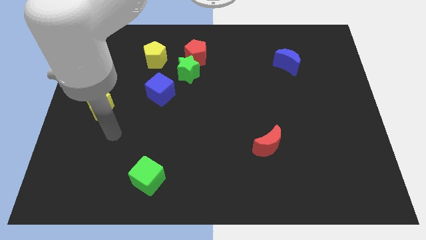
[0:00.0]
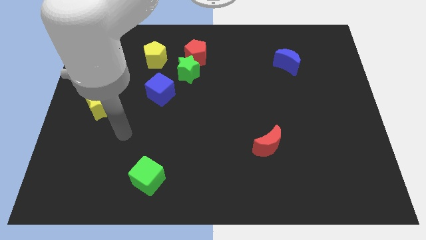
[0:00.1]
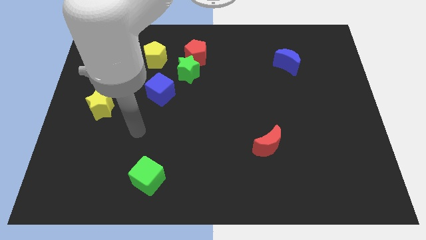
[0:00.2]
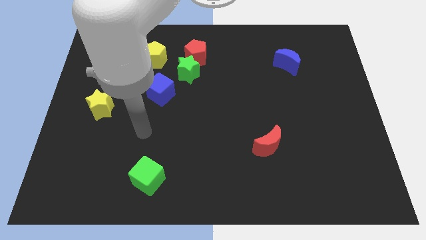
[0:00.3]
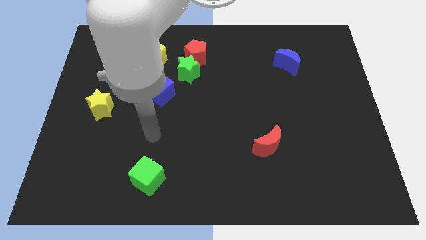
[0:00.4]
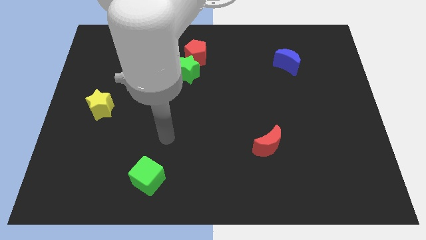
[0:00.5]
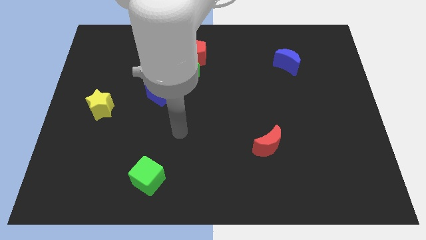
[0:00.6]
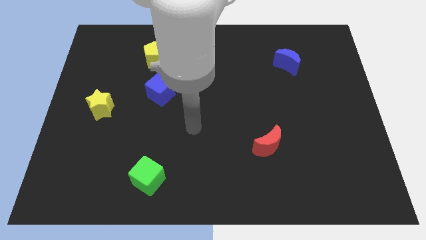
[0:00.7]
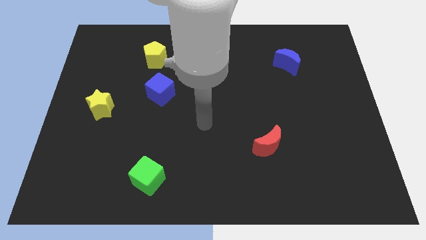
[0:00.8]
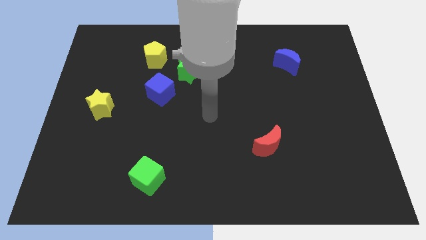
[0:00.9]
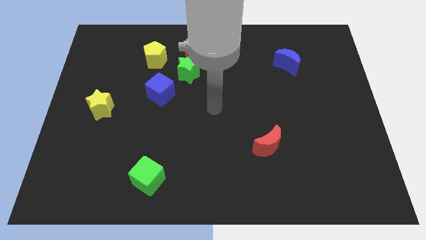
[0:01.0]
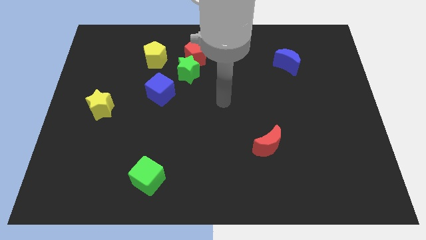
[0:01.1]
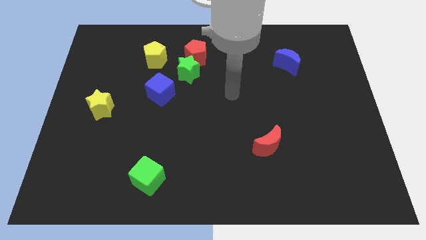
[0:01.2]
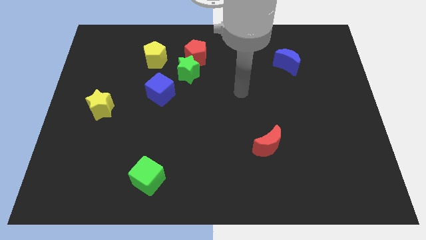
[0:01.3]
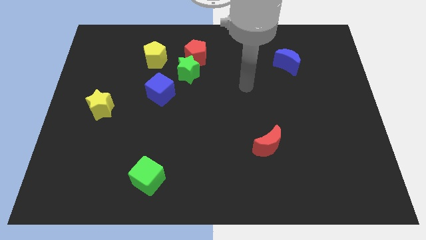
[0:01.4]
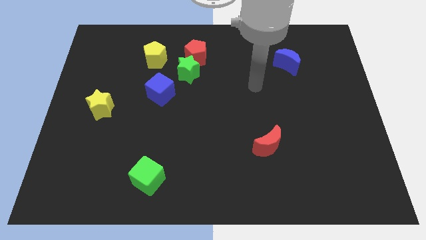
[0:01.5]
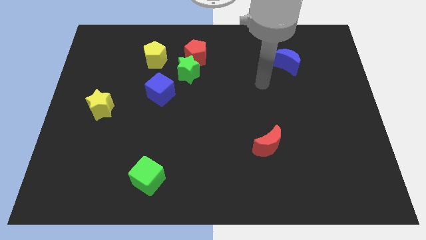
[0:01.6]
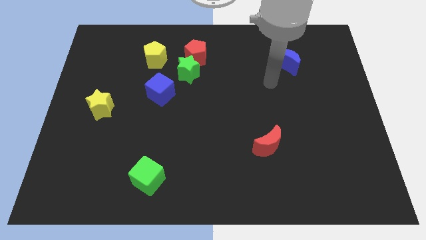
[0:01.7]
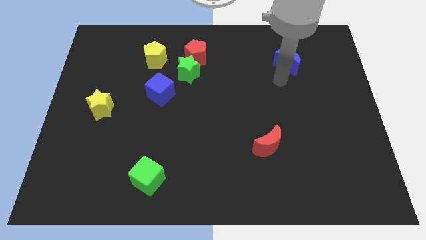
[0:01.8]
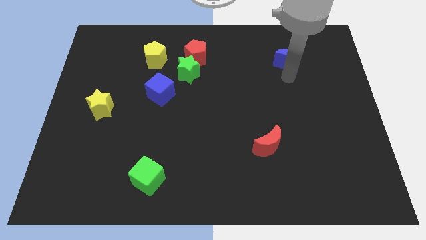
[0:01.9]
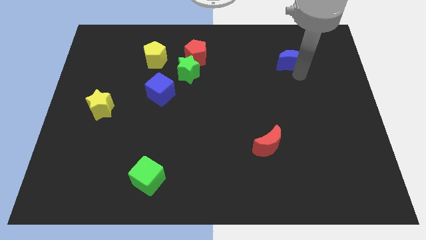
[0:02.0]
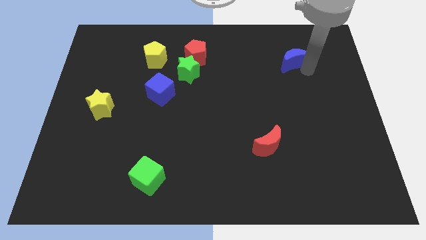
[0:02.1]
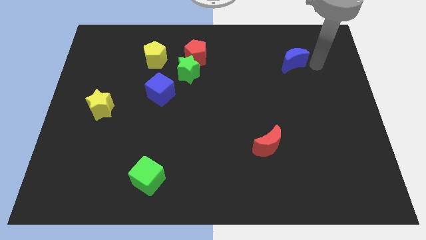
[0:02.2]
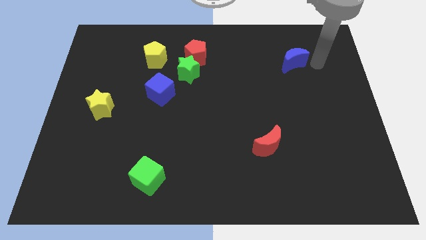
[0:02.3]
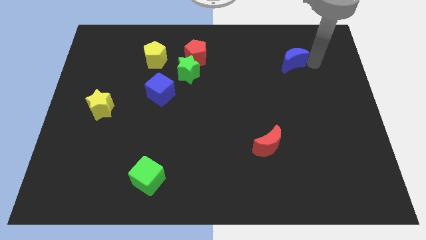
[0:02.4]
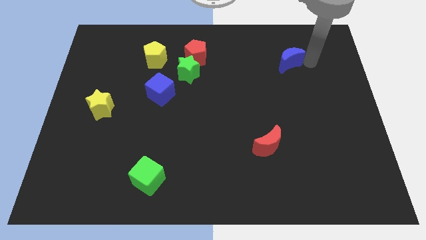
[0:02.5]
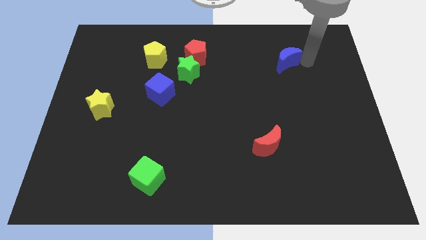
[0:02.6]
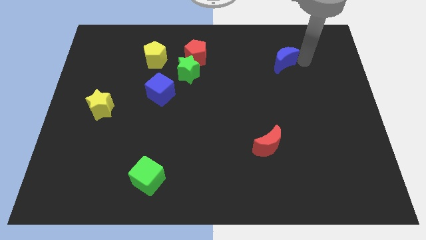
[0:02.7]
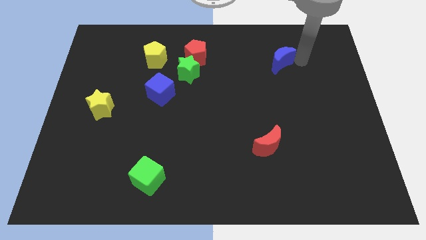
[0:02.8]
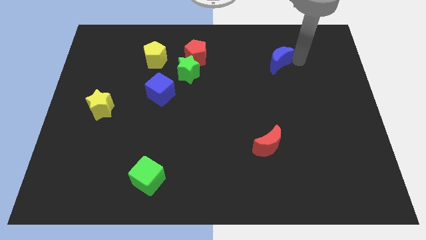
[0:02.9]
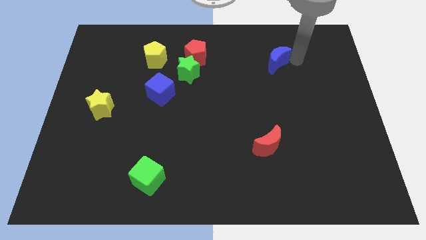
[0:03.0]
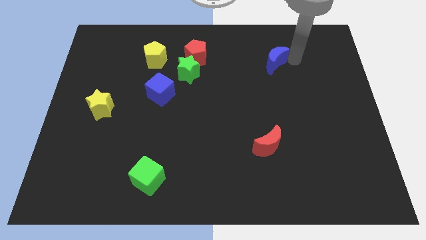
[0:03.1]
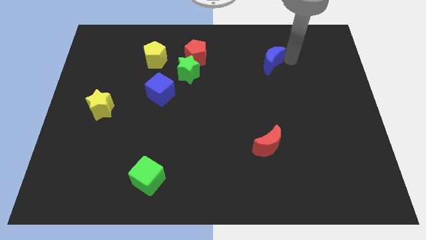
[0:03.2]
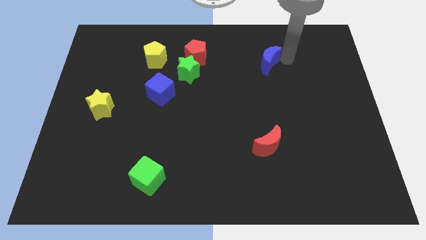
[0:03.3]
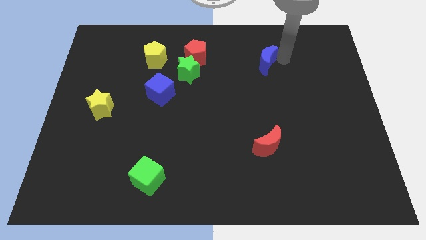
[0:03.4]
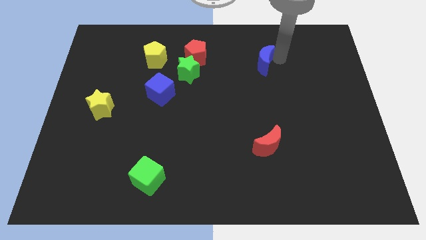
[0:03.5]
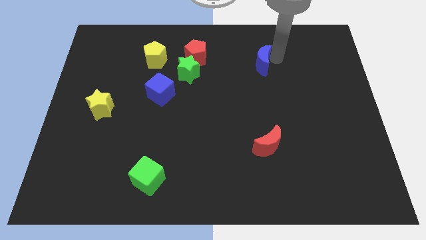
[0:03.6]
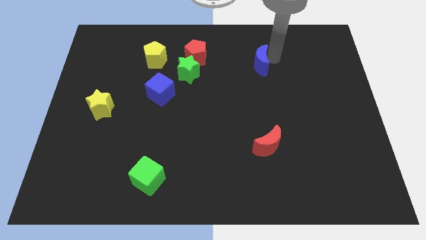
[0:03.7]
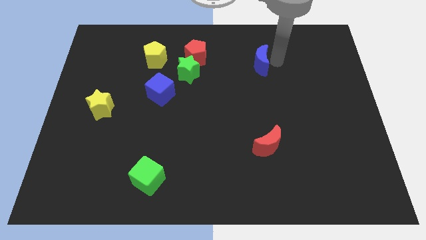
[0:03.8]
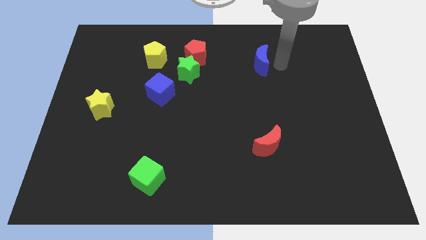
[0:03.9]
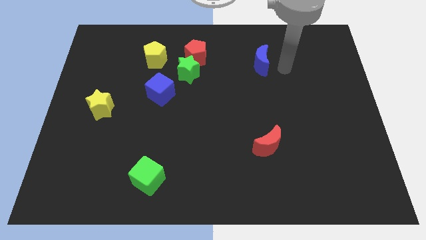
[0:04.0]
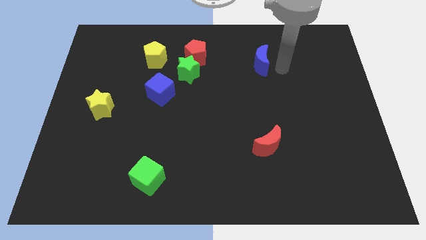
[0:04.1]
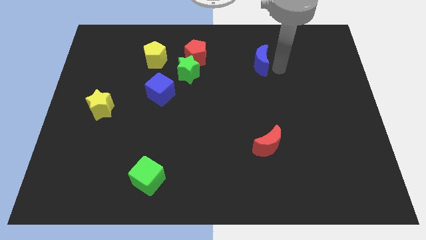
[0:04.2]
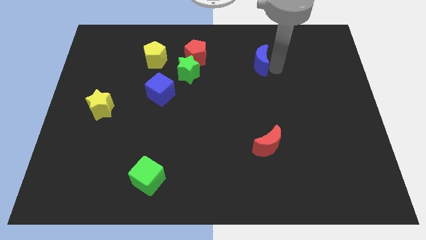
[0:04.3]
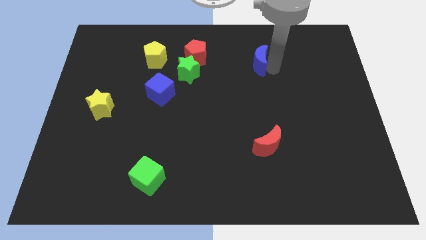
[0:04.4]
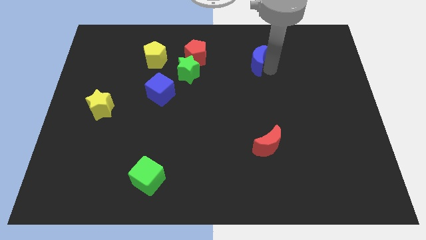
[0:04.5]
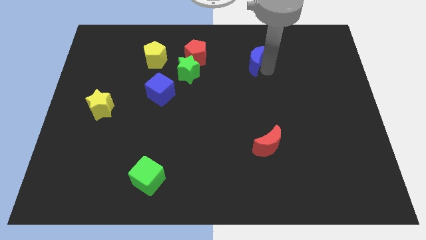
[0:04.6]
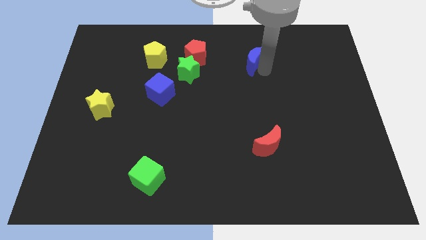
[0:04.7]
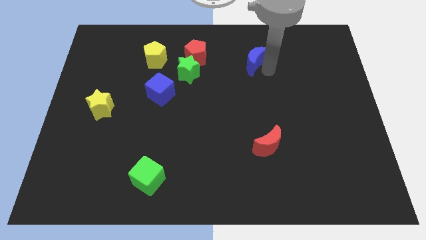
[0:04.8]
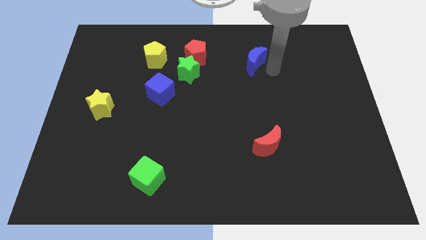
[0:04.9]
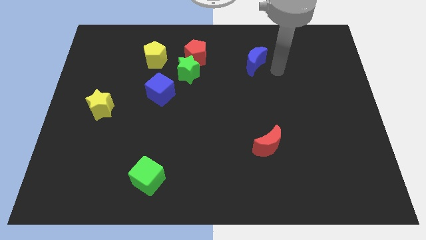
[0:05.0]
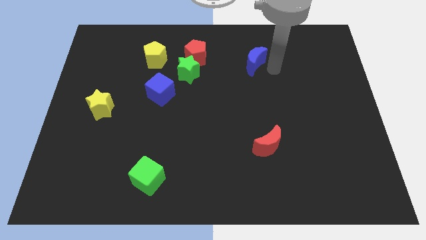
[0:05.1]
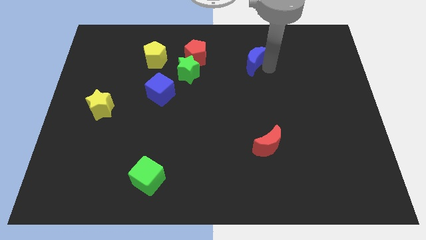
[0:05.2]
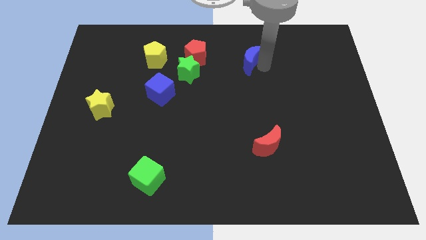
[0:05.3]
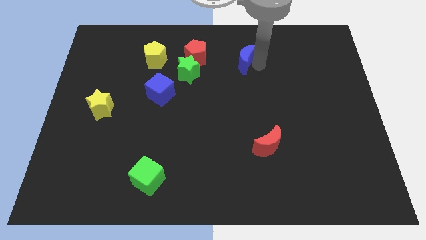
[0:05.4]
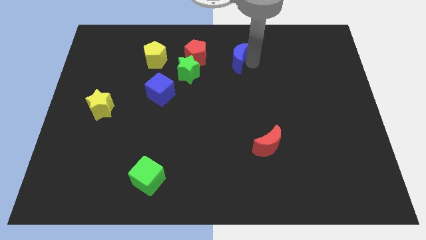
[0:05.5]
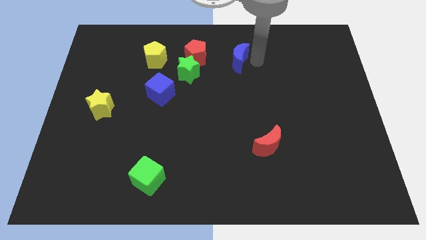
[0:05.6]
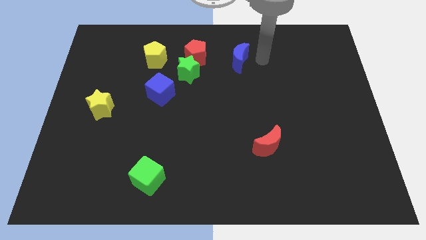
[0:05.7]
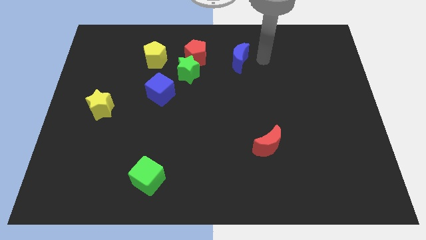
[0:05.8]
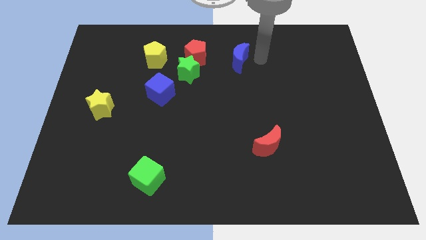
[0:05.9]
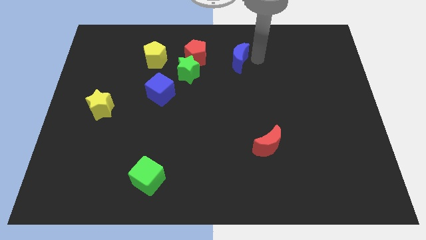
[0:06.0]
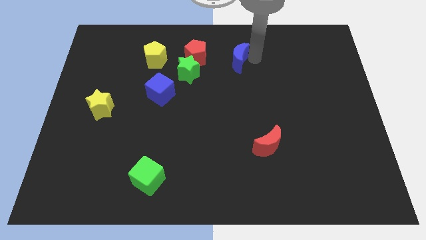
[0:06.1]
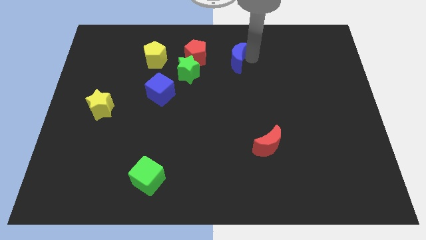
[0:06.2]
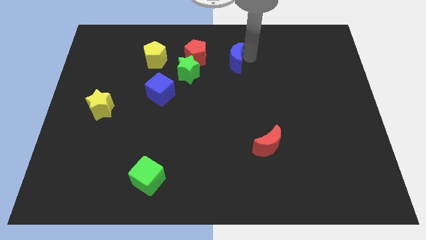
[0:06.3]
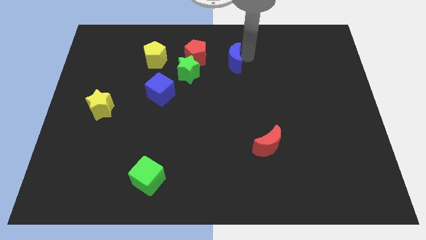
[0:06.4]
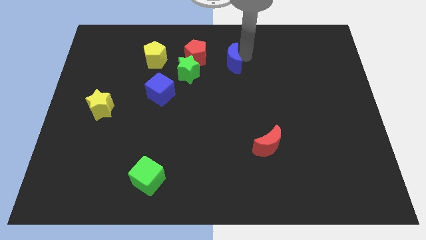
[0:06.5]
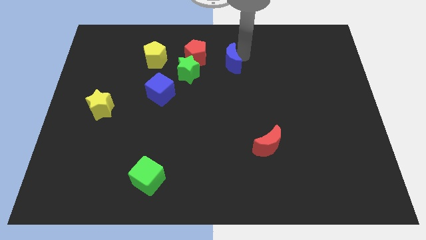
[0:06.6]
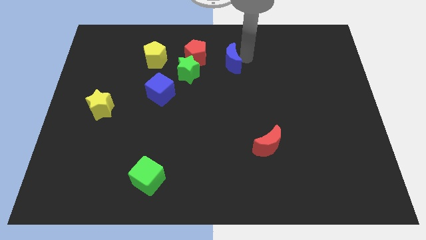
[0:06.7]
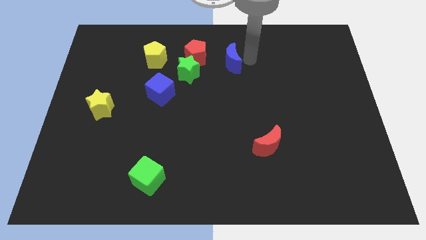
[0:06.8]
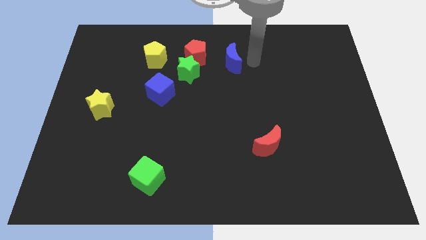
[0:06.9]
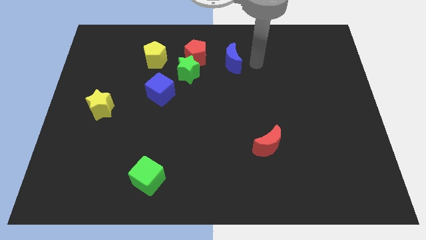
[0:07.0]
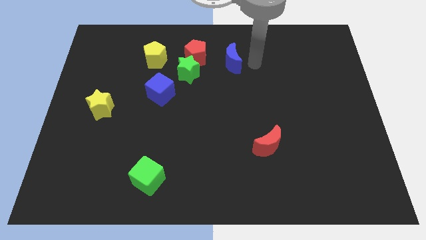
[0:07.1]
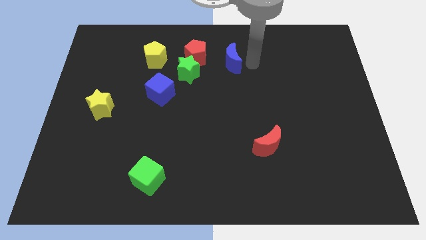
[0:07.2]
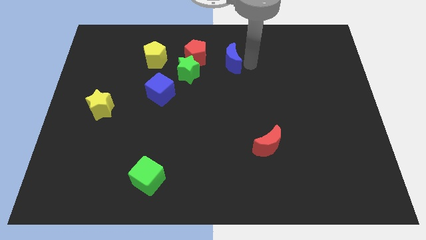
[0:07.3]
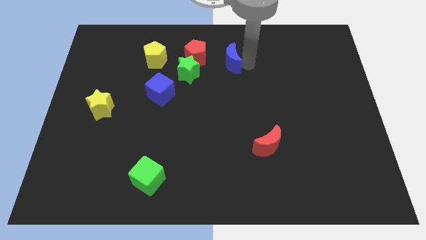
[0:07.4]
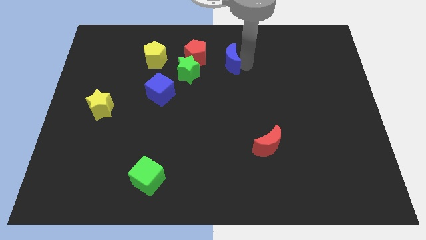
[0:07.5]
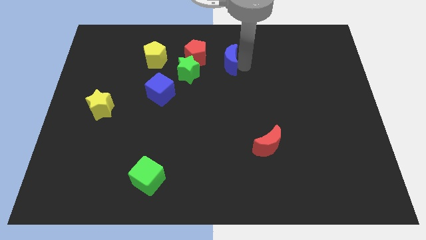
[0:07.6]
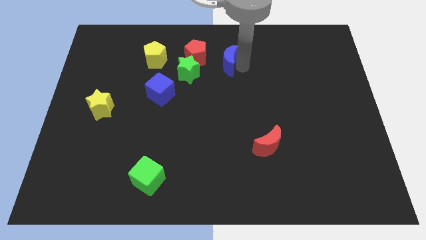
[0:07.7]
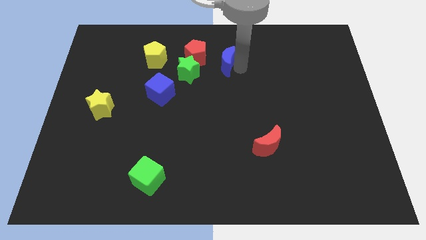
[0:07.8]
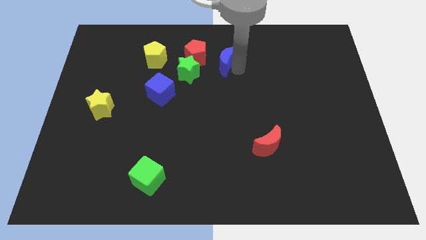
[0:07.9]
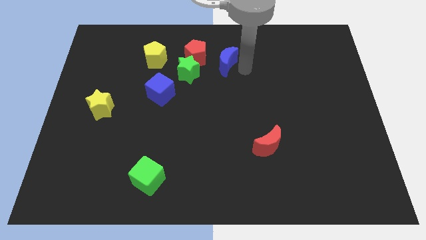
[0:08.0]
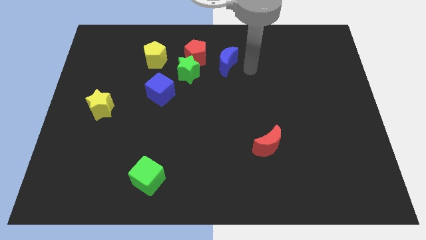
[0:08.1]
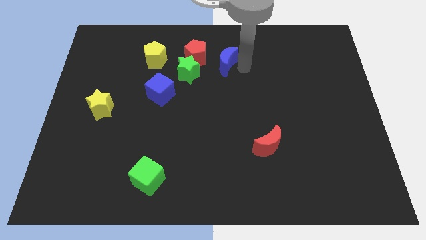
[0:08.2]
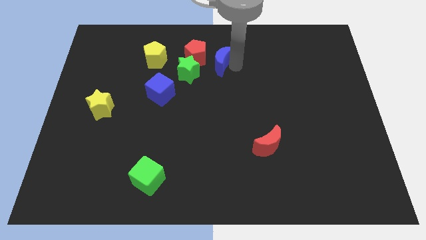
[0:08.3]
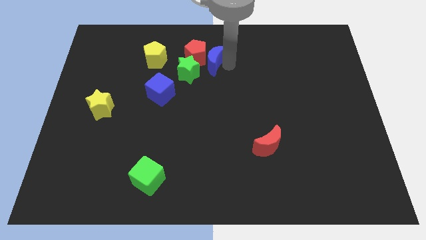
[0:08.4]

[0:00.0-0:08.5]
slide the blue moon towards the red pentagon
